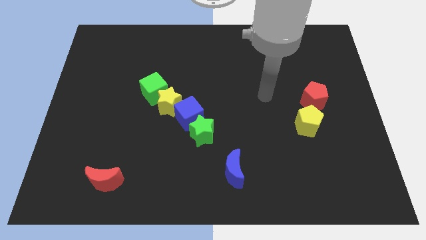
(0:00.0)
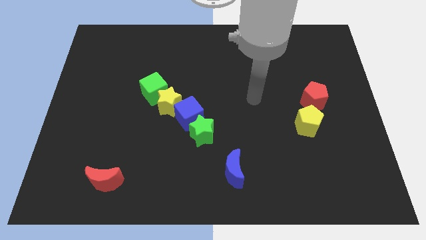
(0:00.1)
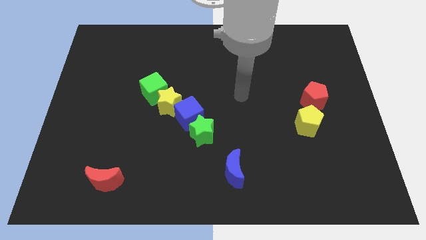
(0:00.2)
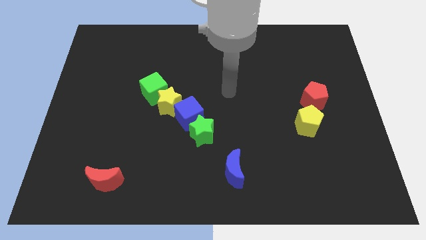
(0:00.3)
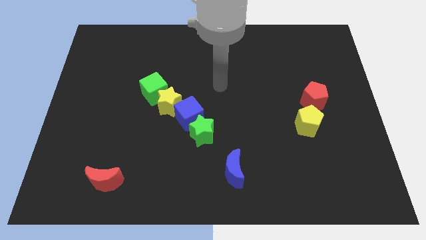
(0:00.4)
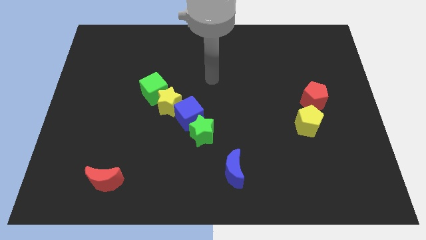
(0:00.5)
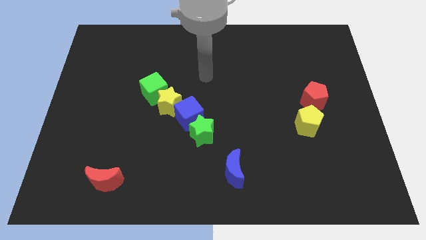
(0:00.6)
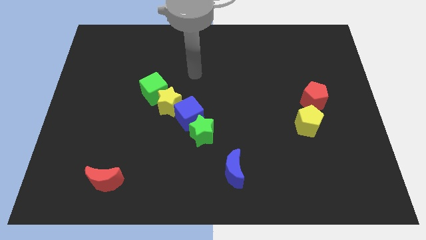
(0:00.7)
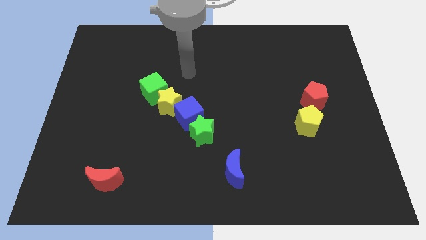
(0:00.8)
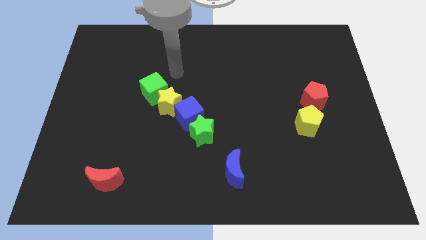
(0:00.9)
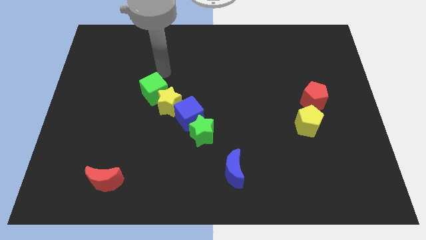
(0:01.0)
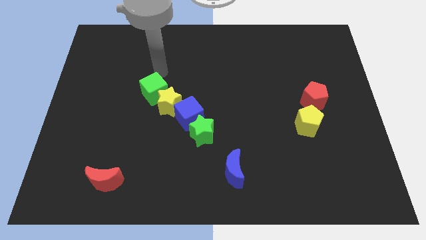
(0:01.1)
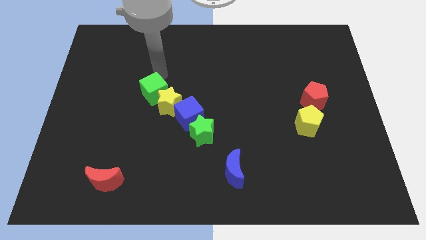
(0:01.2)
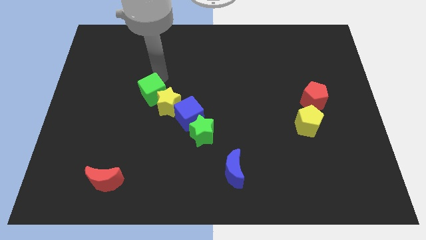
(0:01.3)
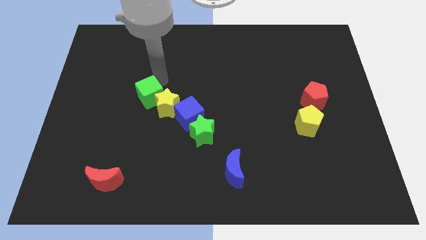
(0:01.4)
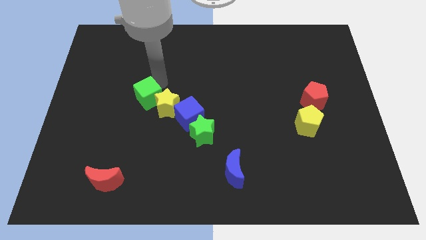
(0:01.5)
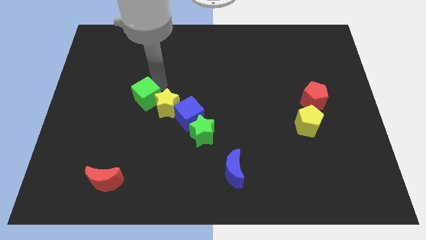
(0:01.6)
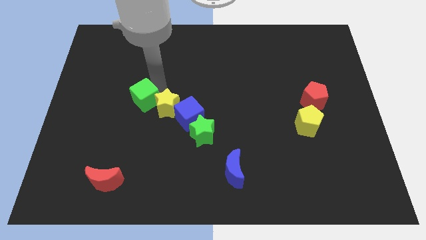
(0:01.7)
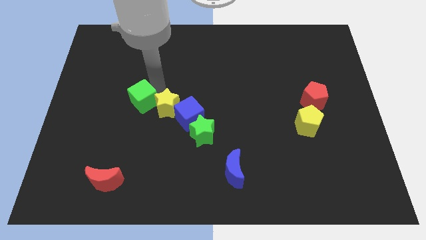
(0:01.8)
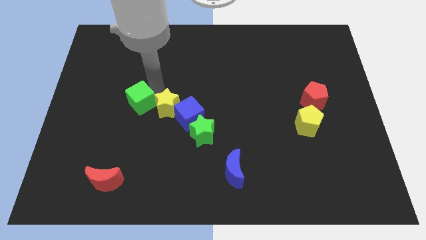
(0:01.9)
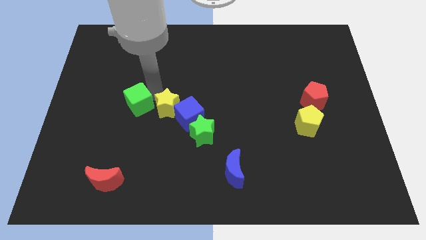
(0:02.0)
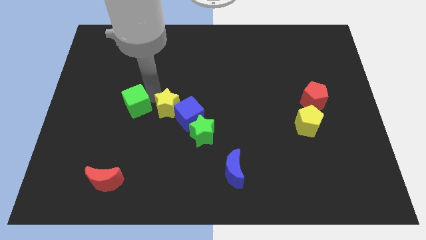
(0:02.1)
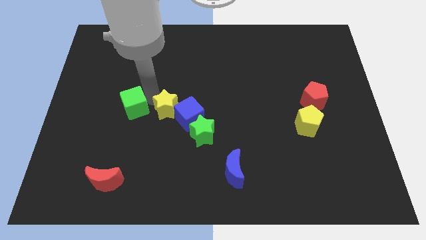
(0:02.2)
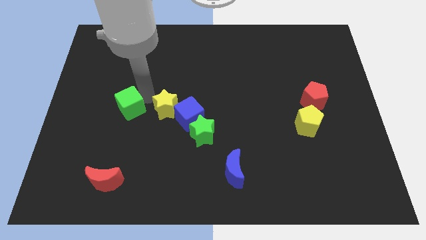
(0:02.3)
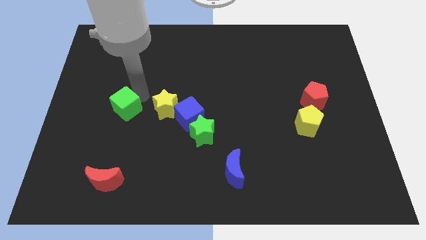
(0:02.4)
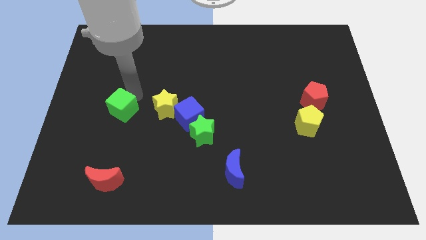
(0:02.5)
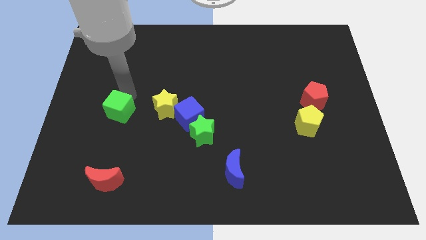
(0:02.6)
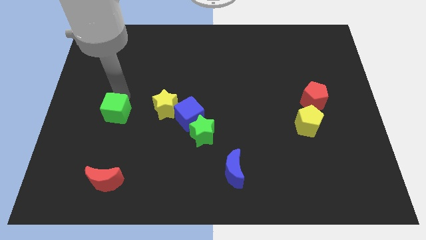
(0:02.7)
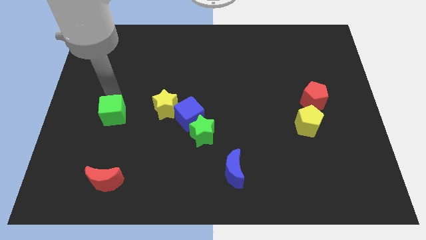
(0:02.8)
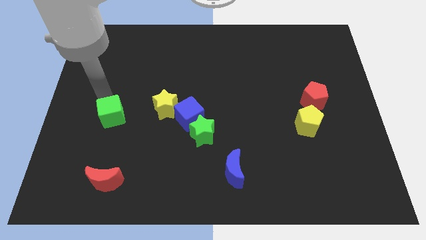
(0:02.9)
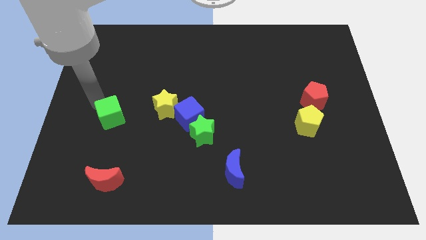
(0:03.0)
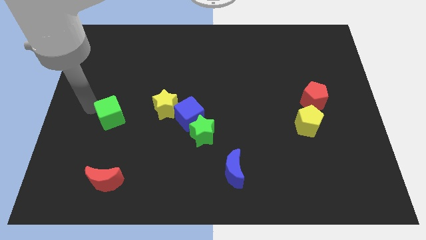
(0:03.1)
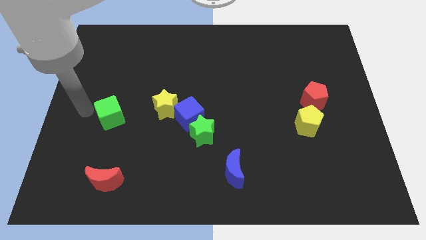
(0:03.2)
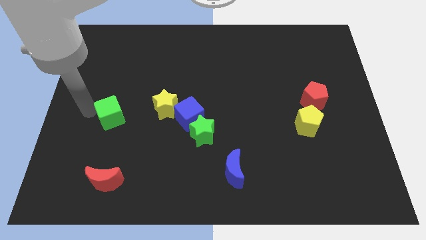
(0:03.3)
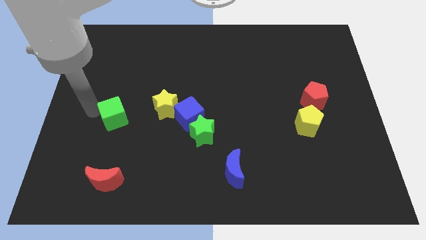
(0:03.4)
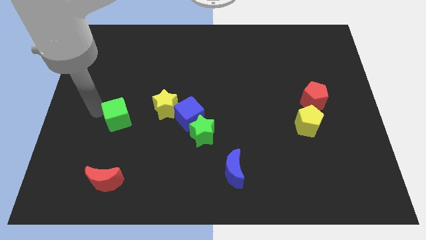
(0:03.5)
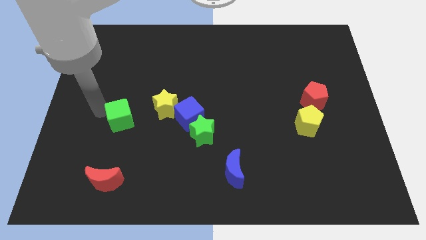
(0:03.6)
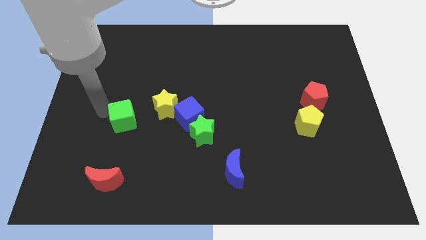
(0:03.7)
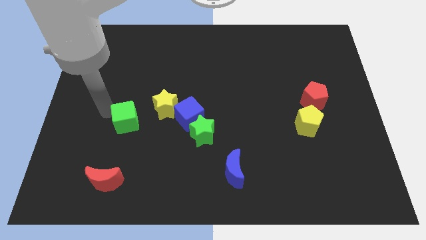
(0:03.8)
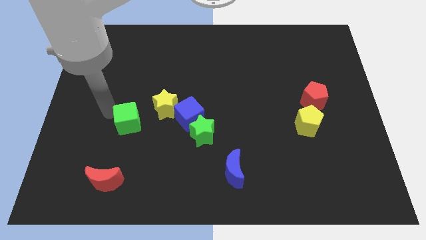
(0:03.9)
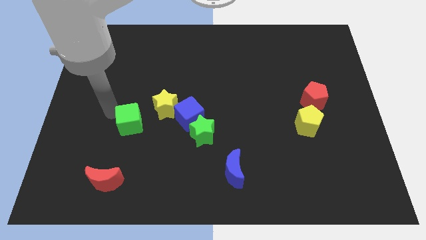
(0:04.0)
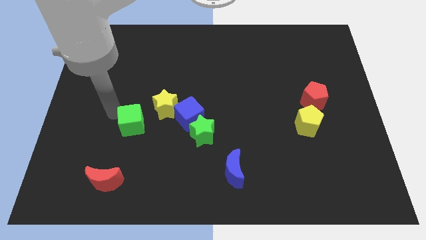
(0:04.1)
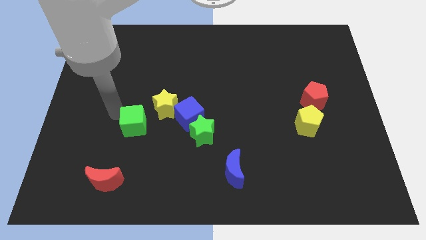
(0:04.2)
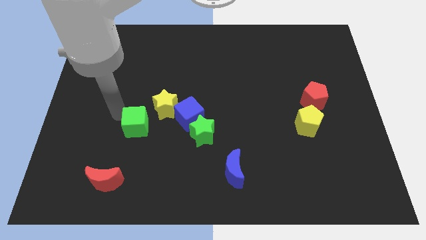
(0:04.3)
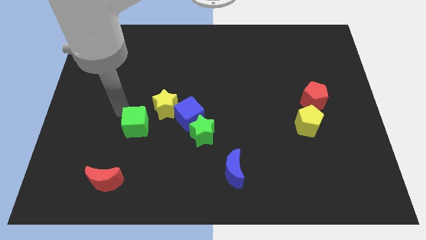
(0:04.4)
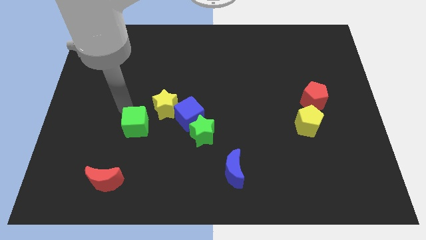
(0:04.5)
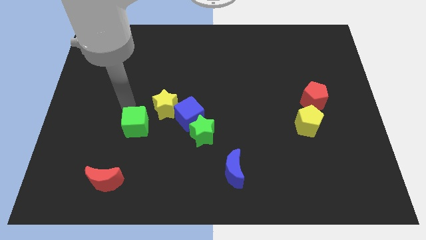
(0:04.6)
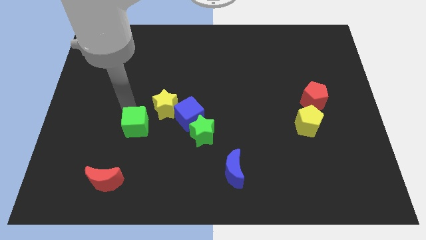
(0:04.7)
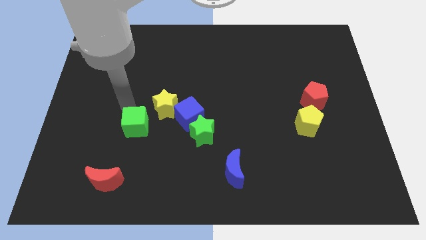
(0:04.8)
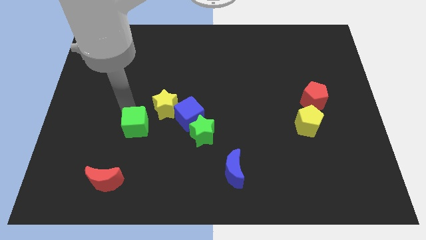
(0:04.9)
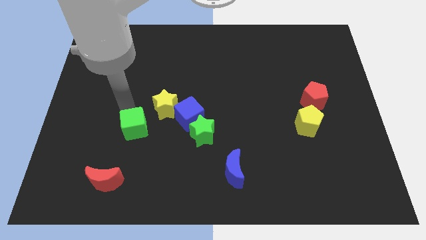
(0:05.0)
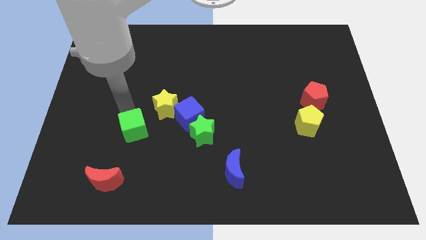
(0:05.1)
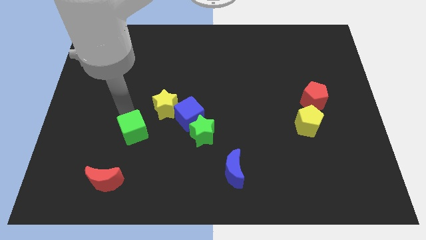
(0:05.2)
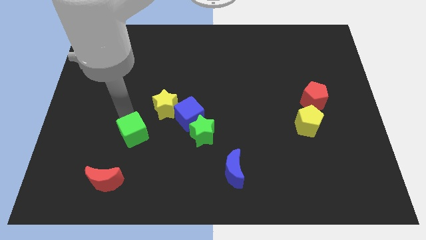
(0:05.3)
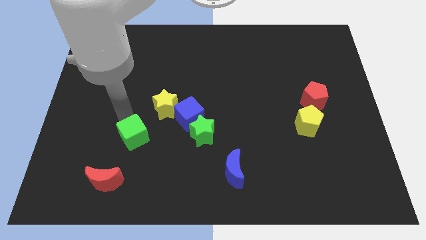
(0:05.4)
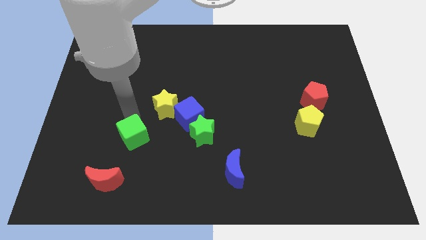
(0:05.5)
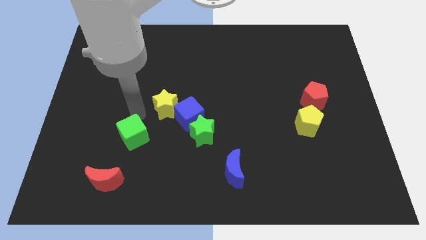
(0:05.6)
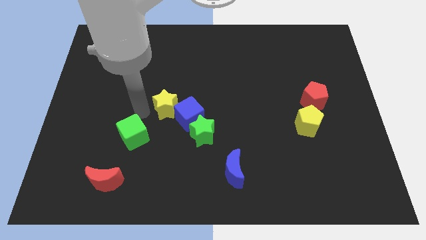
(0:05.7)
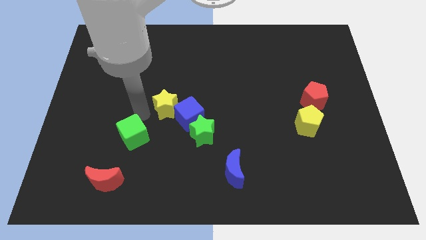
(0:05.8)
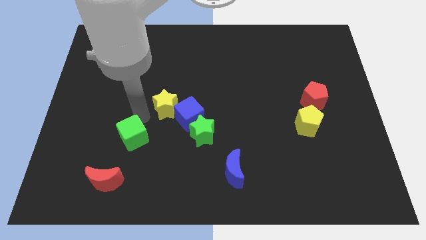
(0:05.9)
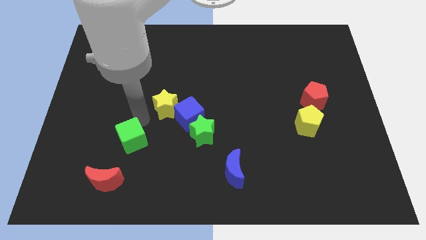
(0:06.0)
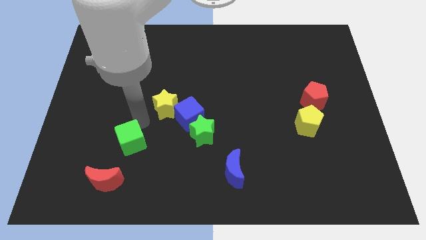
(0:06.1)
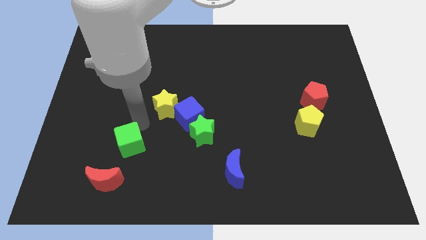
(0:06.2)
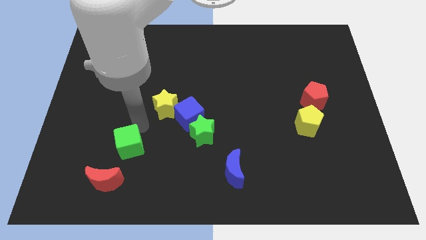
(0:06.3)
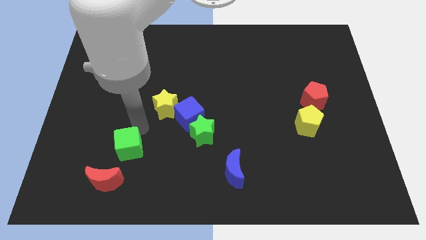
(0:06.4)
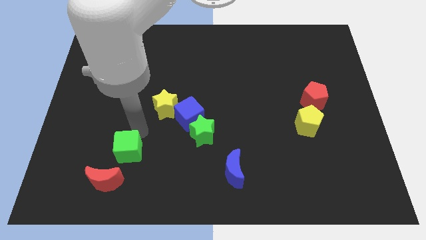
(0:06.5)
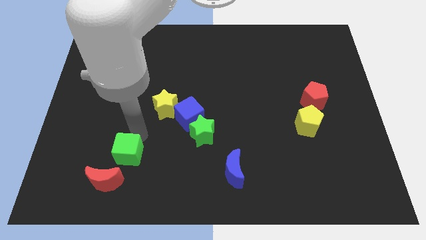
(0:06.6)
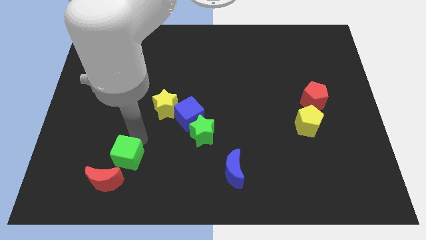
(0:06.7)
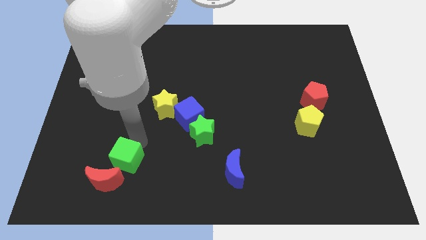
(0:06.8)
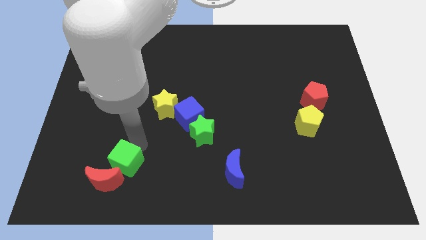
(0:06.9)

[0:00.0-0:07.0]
put the green cube close to the red moon
